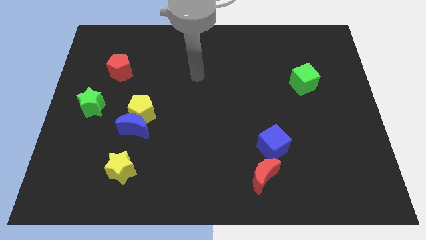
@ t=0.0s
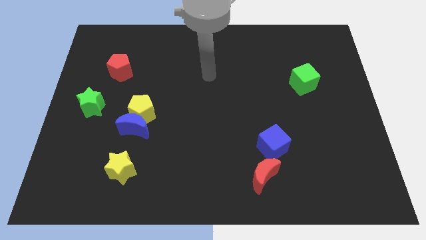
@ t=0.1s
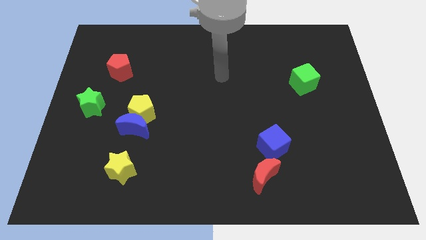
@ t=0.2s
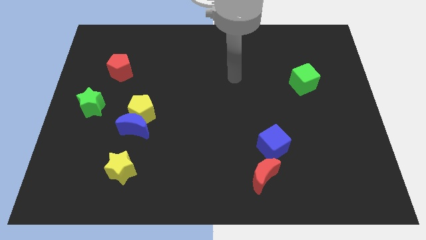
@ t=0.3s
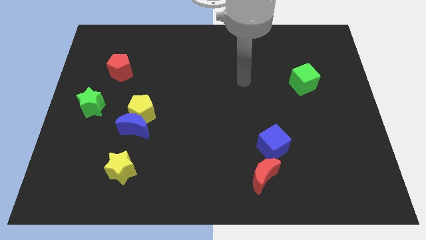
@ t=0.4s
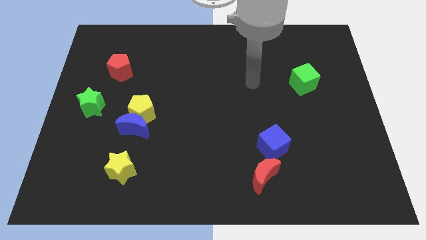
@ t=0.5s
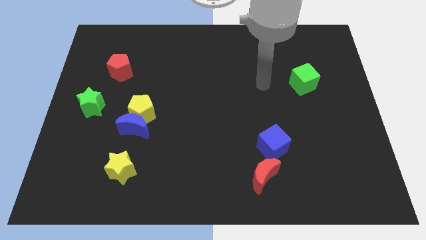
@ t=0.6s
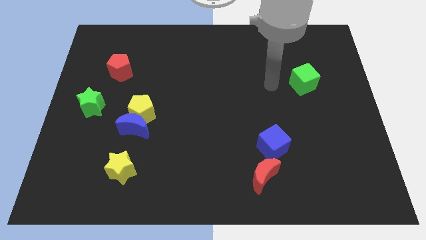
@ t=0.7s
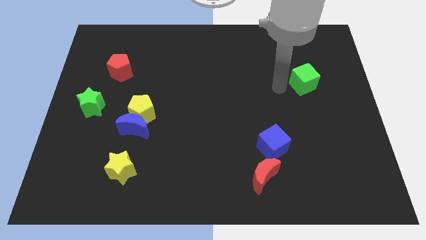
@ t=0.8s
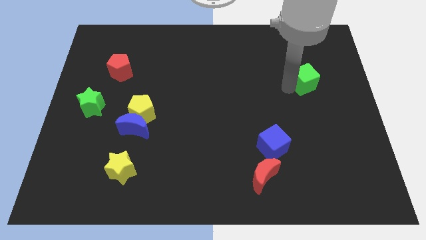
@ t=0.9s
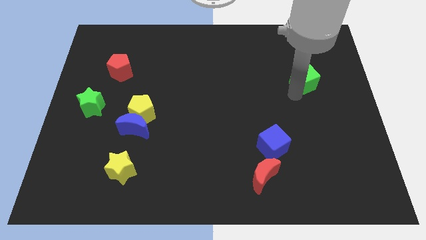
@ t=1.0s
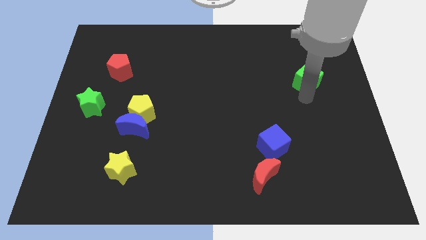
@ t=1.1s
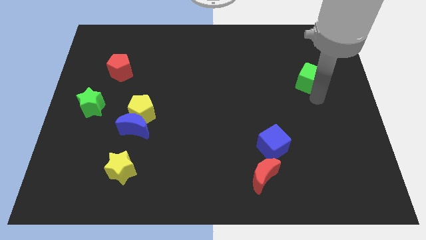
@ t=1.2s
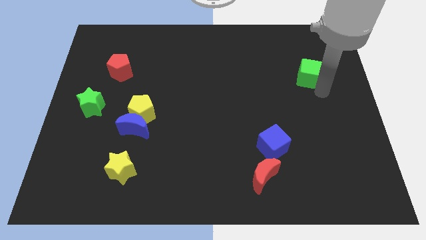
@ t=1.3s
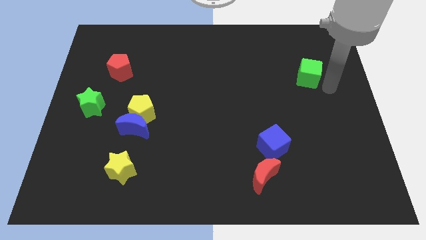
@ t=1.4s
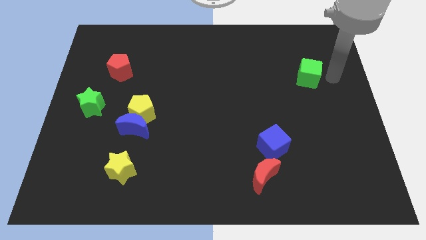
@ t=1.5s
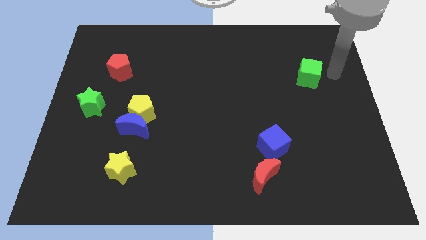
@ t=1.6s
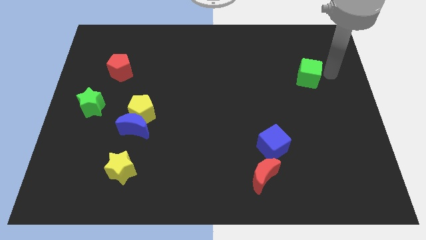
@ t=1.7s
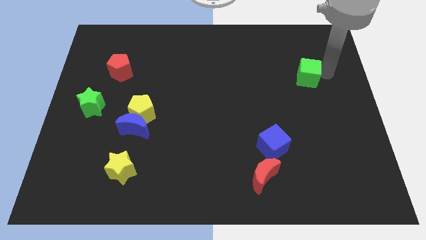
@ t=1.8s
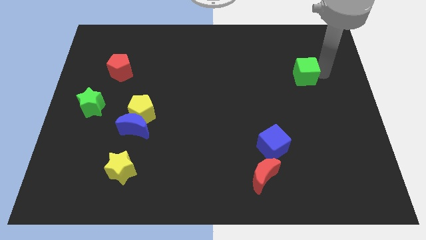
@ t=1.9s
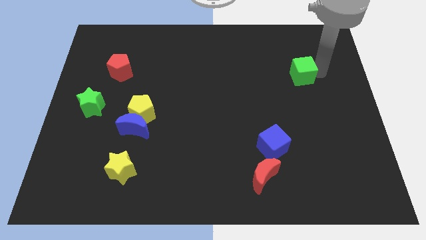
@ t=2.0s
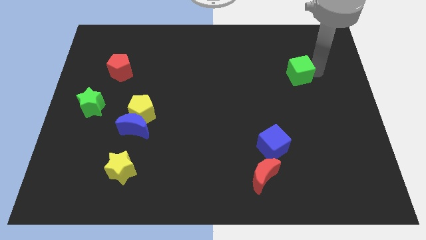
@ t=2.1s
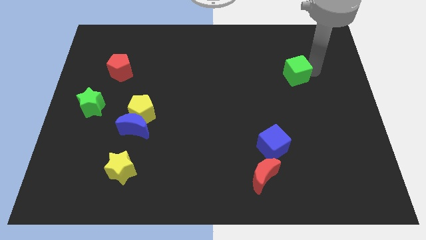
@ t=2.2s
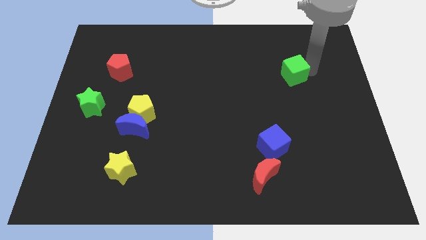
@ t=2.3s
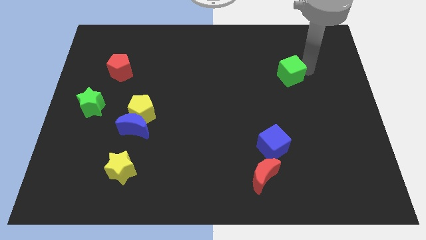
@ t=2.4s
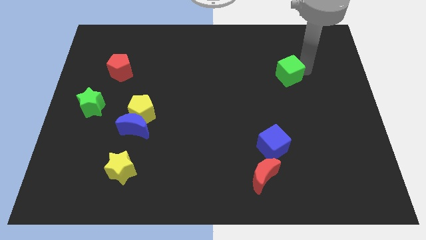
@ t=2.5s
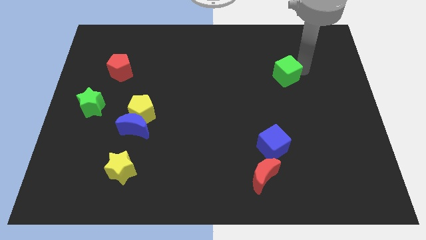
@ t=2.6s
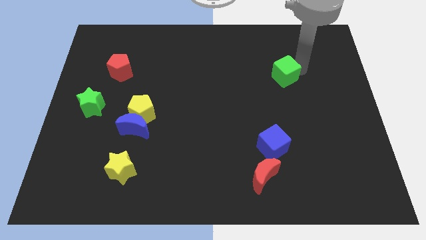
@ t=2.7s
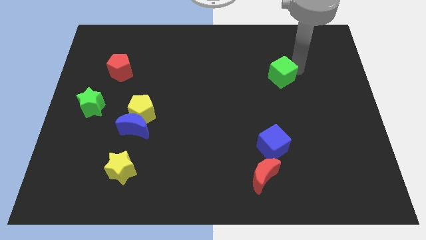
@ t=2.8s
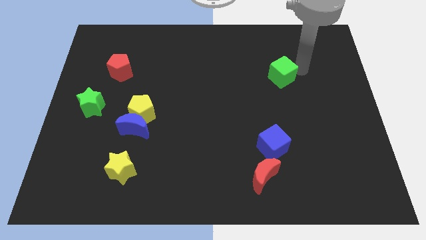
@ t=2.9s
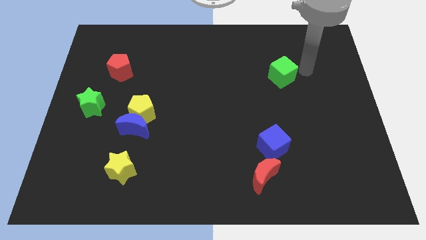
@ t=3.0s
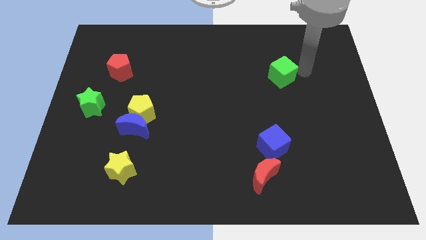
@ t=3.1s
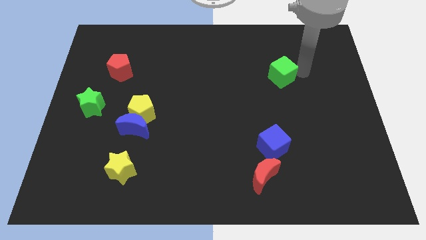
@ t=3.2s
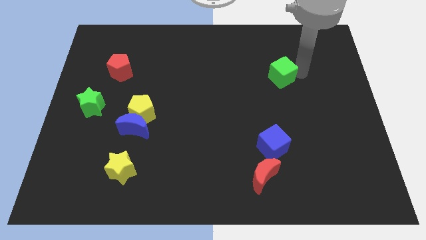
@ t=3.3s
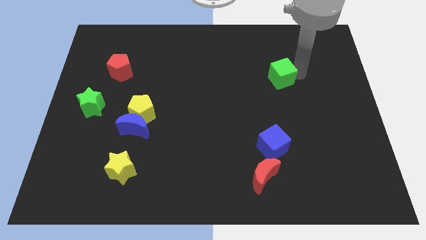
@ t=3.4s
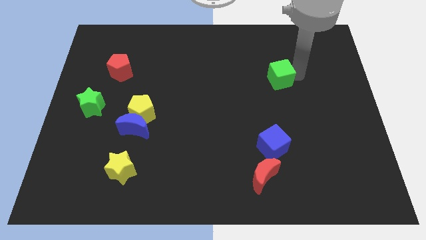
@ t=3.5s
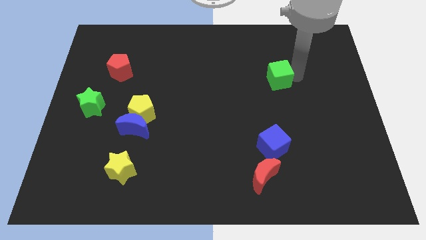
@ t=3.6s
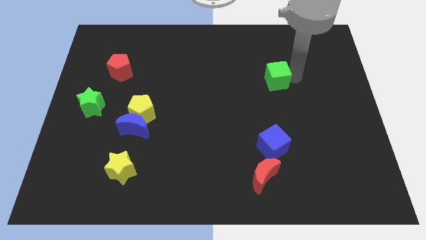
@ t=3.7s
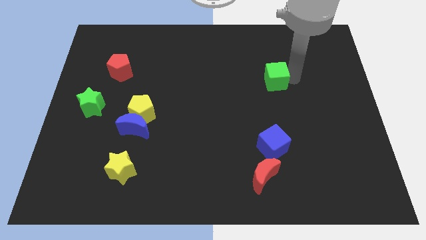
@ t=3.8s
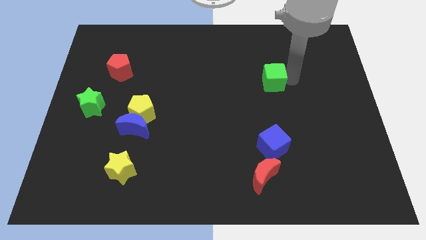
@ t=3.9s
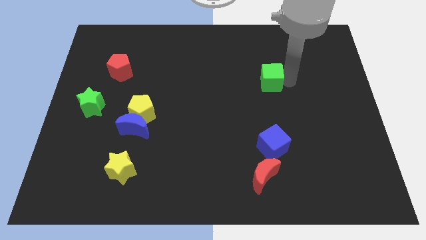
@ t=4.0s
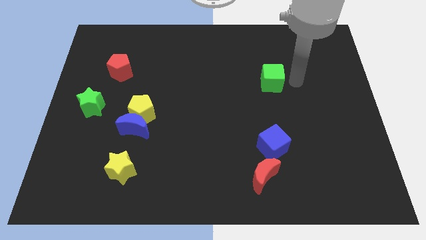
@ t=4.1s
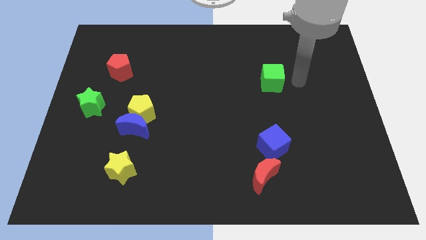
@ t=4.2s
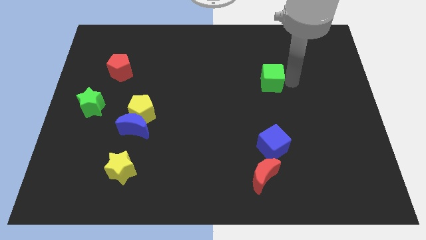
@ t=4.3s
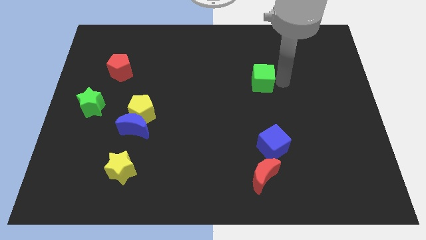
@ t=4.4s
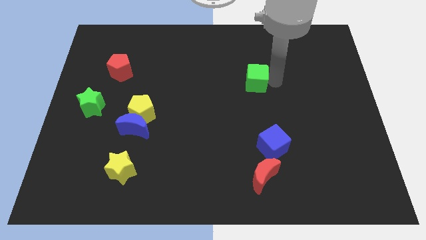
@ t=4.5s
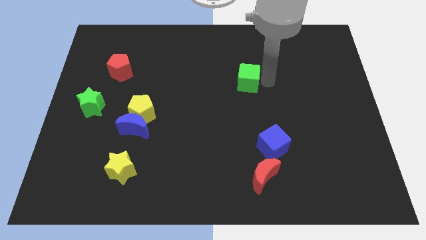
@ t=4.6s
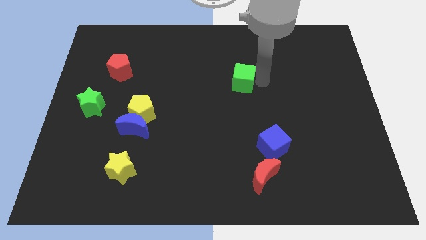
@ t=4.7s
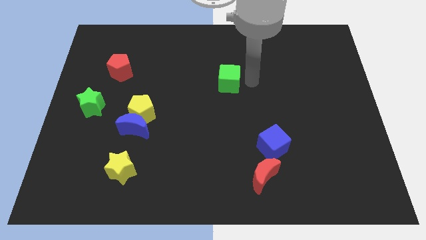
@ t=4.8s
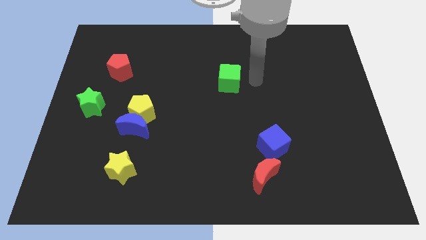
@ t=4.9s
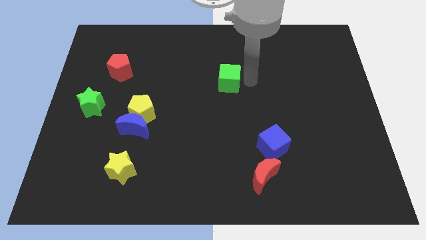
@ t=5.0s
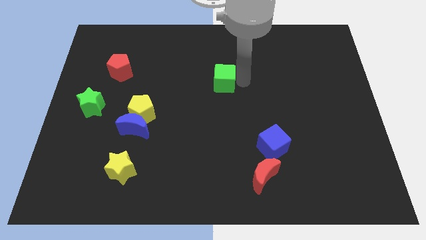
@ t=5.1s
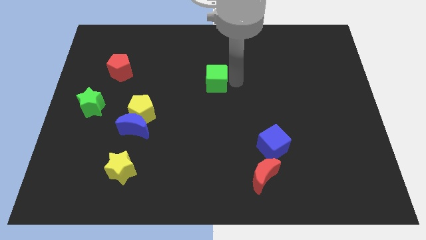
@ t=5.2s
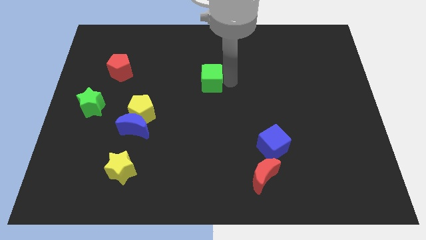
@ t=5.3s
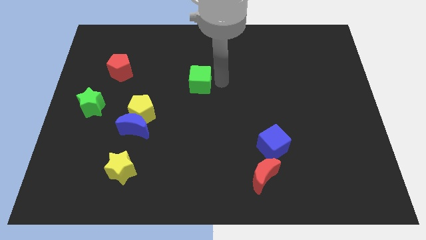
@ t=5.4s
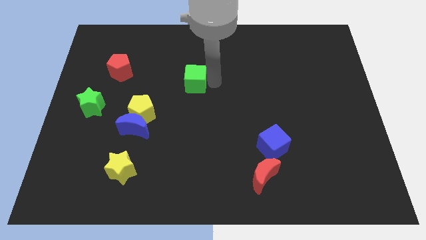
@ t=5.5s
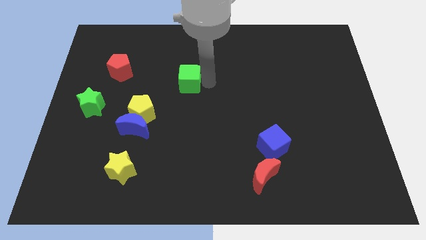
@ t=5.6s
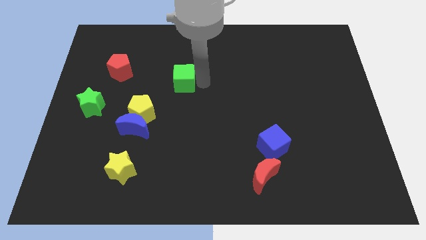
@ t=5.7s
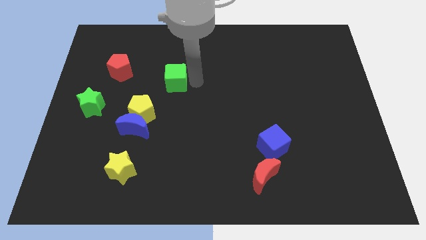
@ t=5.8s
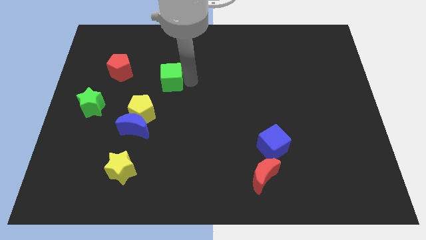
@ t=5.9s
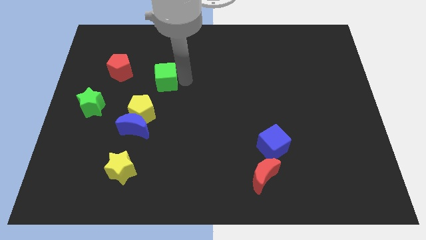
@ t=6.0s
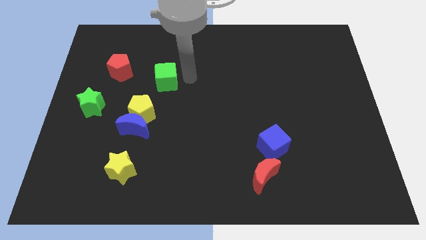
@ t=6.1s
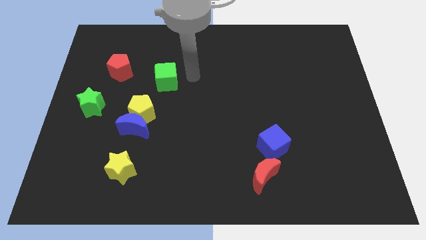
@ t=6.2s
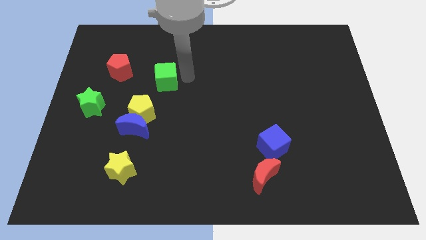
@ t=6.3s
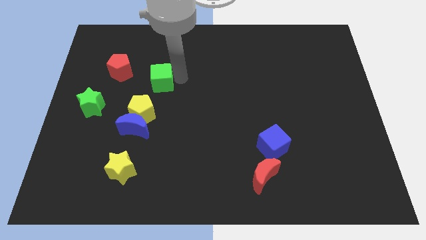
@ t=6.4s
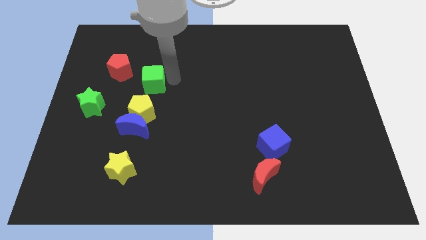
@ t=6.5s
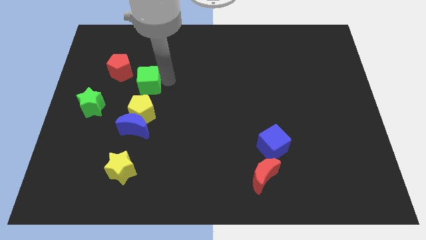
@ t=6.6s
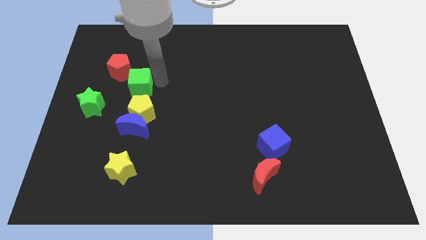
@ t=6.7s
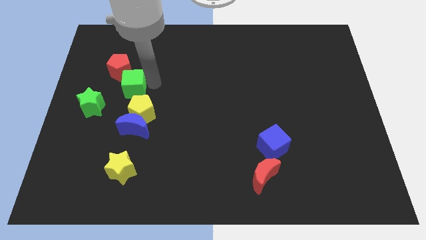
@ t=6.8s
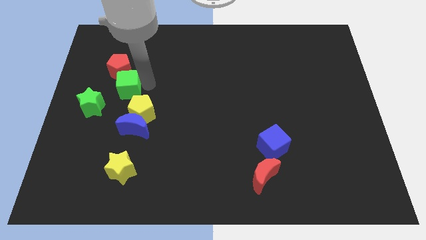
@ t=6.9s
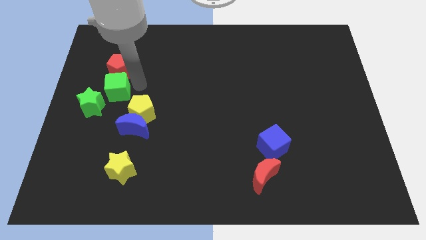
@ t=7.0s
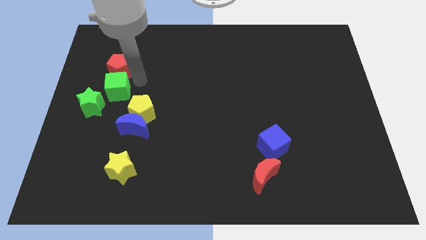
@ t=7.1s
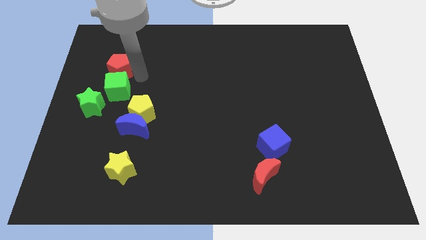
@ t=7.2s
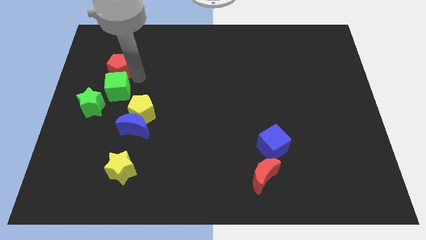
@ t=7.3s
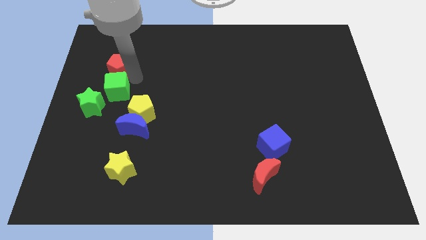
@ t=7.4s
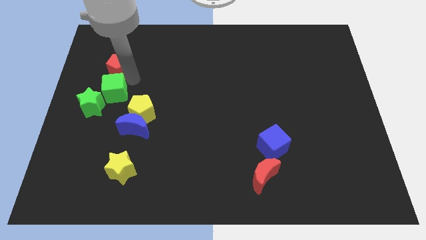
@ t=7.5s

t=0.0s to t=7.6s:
slide the green cube to the green star
